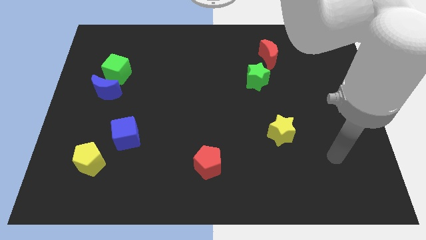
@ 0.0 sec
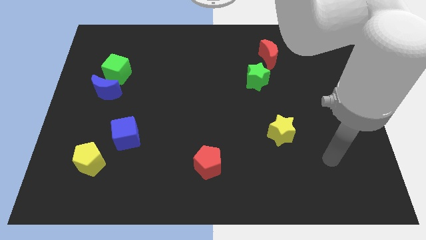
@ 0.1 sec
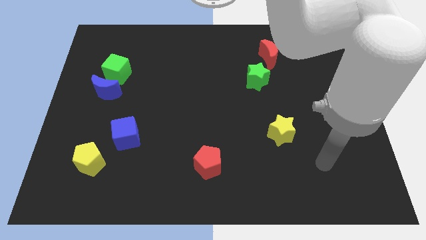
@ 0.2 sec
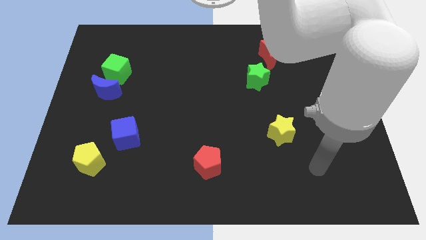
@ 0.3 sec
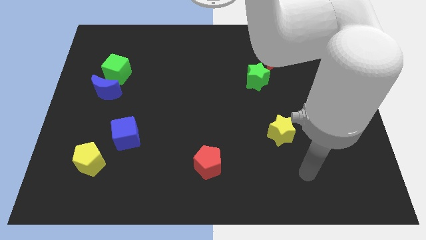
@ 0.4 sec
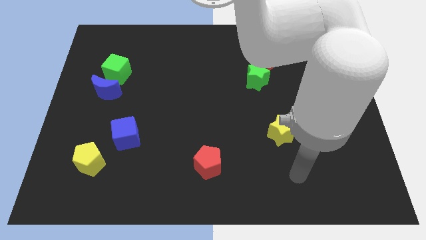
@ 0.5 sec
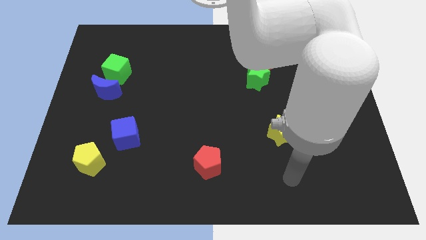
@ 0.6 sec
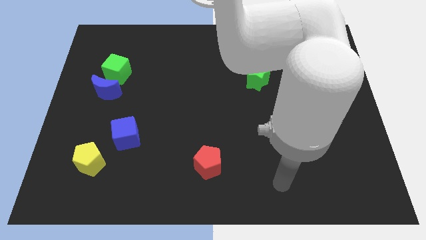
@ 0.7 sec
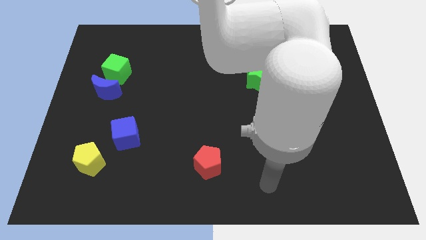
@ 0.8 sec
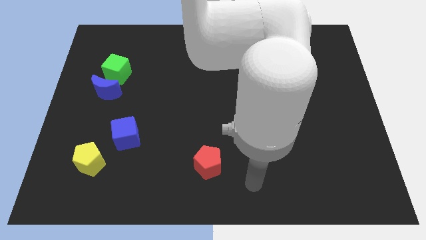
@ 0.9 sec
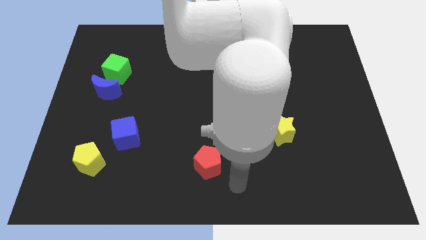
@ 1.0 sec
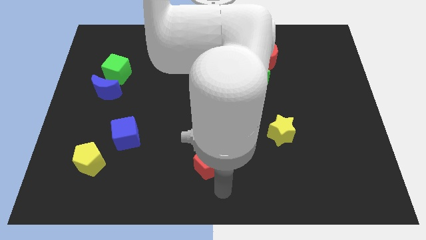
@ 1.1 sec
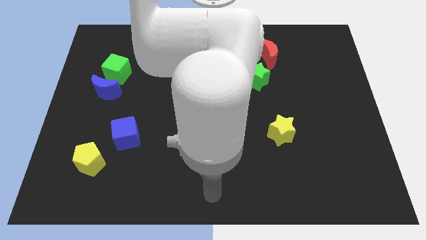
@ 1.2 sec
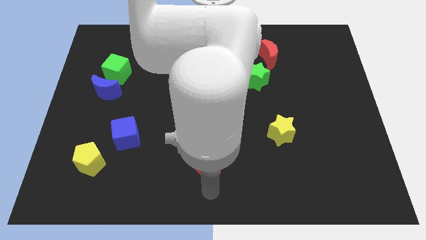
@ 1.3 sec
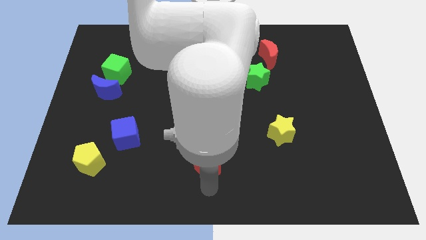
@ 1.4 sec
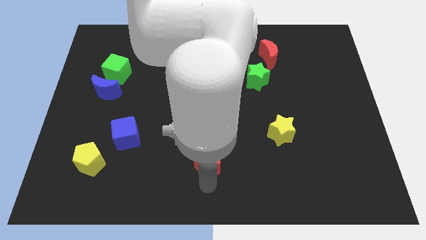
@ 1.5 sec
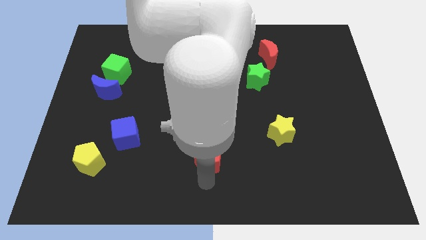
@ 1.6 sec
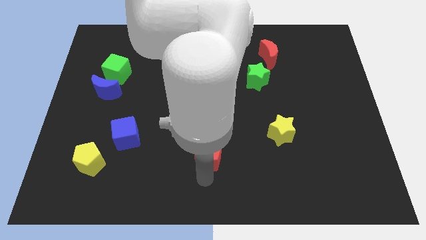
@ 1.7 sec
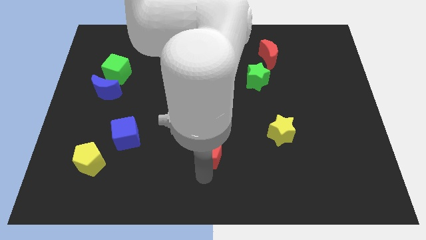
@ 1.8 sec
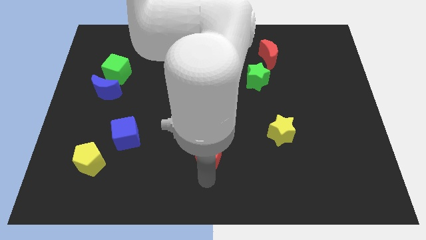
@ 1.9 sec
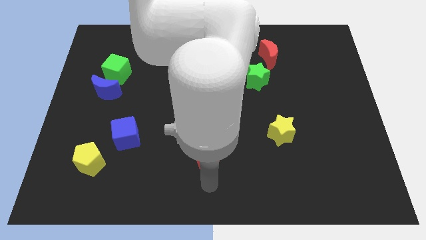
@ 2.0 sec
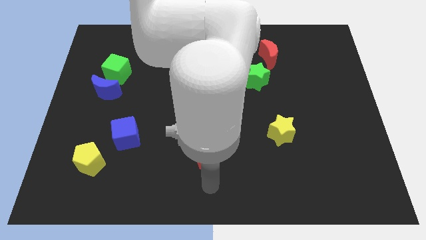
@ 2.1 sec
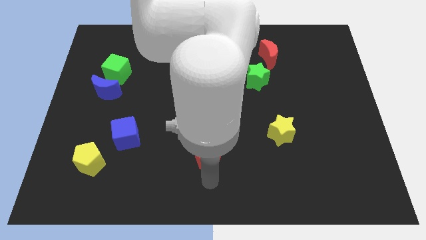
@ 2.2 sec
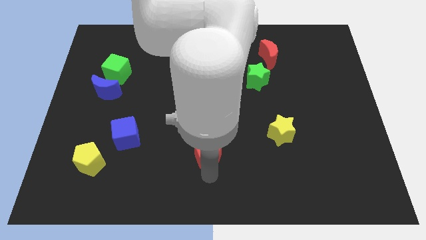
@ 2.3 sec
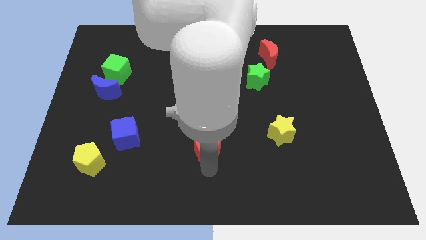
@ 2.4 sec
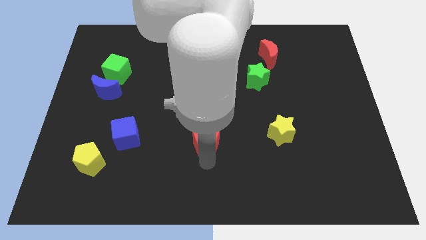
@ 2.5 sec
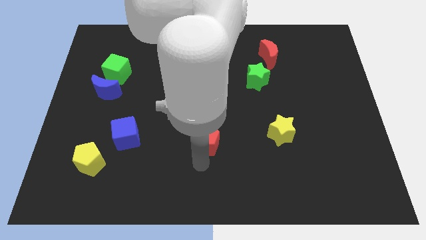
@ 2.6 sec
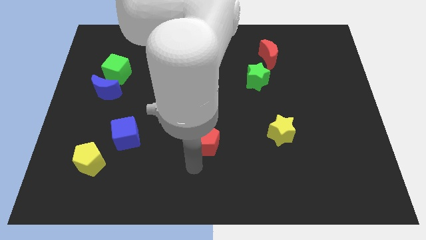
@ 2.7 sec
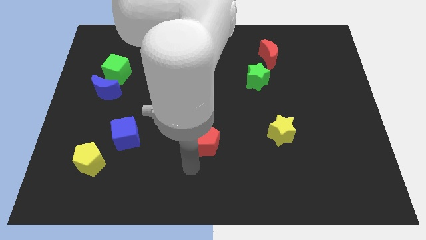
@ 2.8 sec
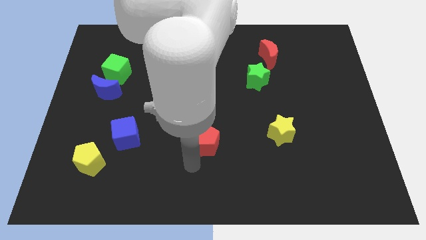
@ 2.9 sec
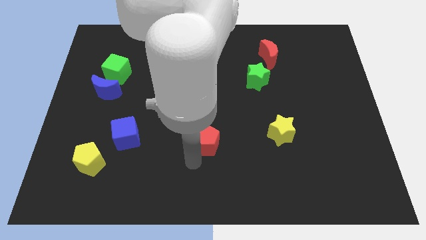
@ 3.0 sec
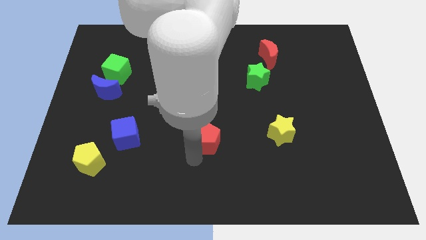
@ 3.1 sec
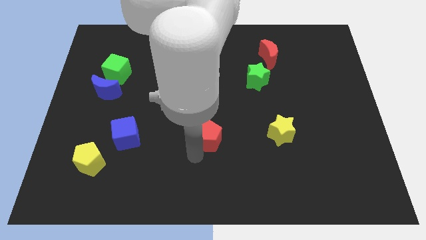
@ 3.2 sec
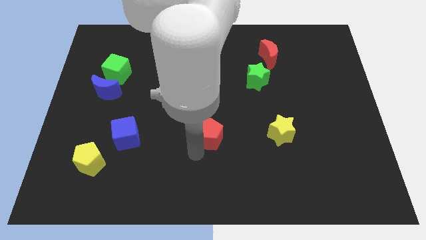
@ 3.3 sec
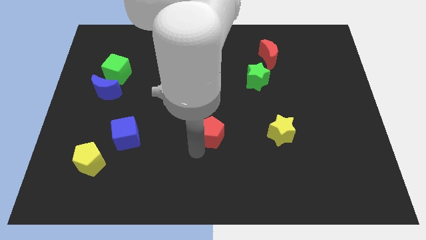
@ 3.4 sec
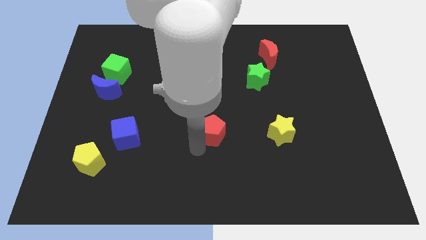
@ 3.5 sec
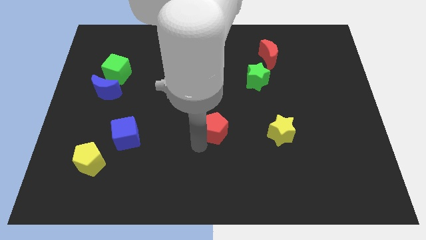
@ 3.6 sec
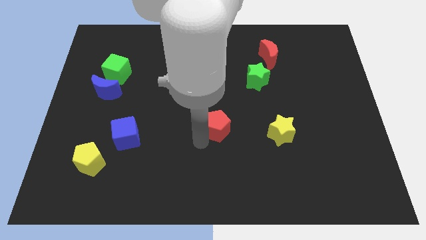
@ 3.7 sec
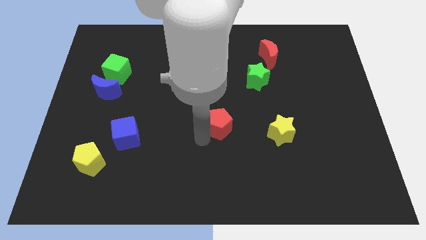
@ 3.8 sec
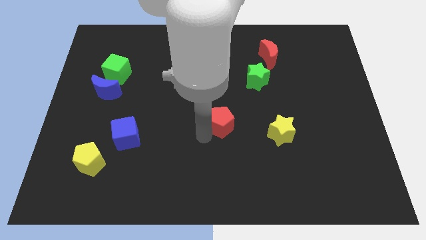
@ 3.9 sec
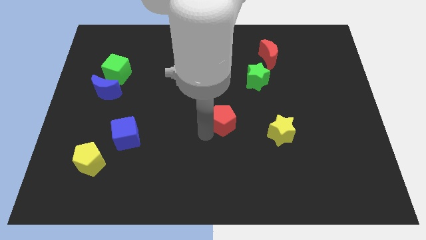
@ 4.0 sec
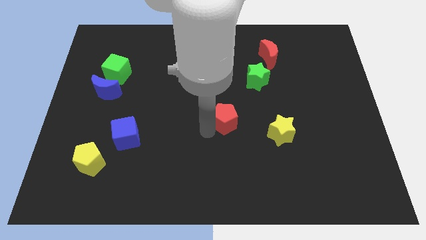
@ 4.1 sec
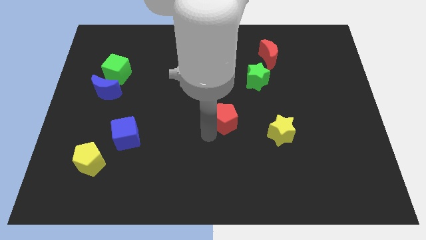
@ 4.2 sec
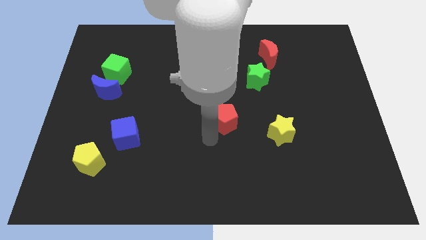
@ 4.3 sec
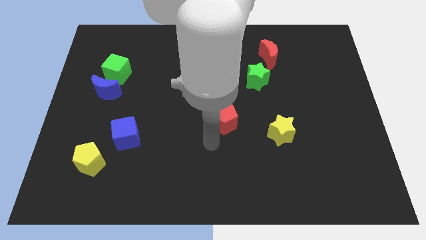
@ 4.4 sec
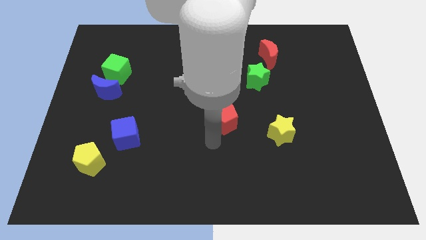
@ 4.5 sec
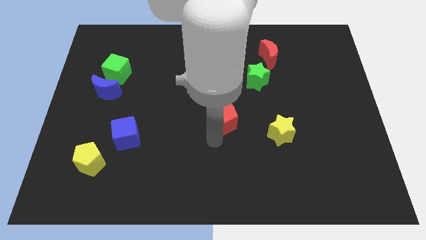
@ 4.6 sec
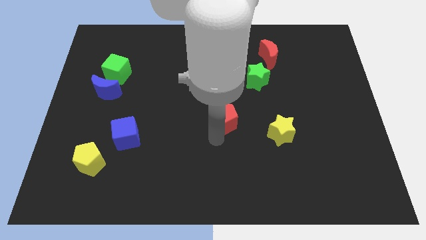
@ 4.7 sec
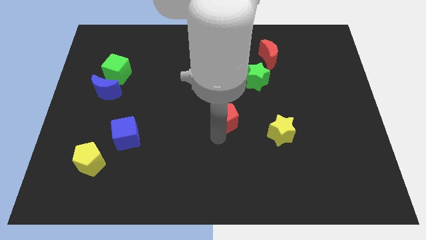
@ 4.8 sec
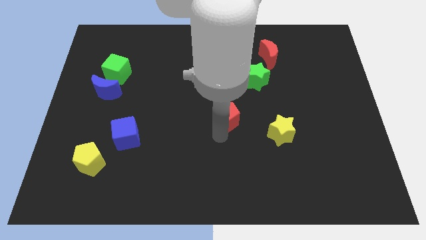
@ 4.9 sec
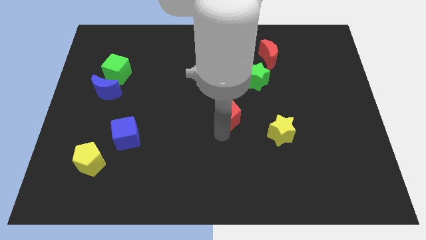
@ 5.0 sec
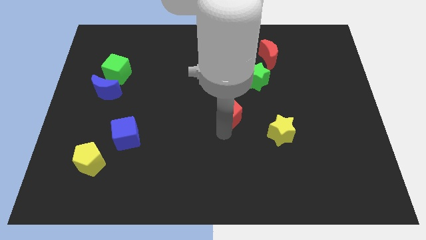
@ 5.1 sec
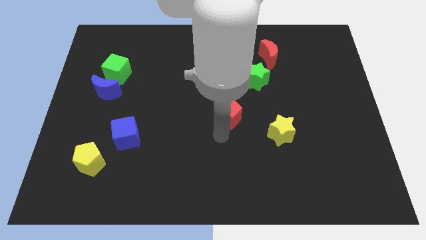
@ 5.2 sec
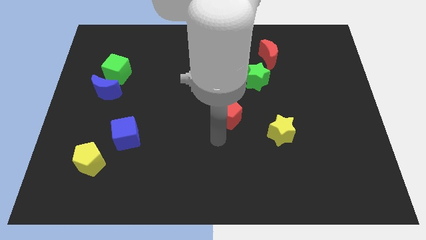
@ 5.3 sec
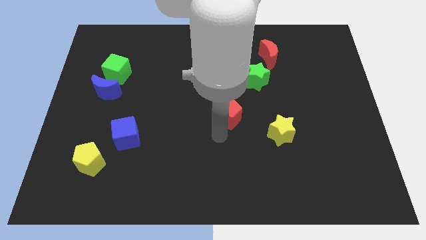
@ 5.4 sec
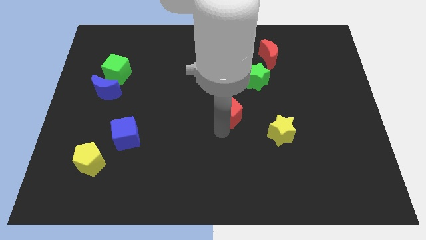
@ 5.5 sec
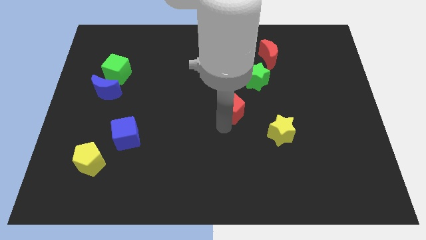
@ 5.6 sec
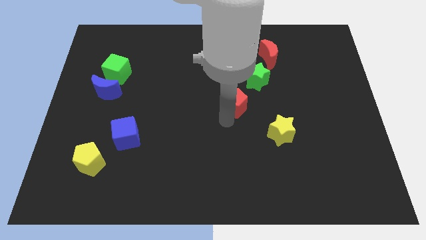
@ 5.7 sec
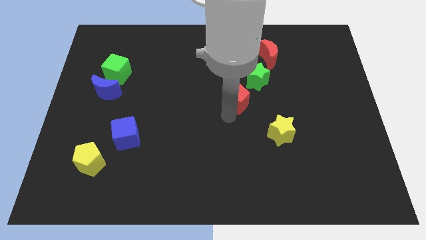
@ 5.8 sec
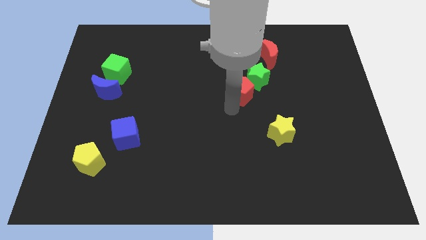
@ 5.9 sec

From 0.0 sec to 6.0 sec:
slide the red pentagon next to the green star

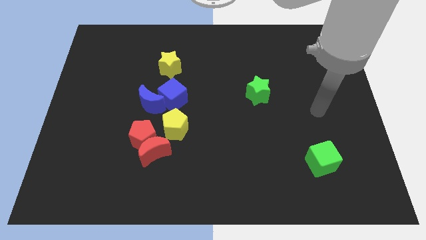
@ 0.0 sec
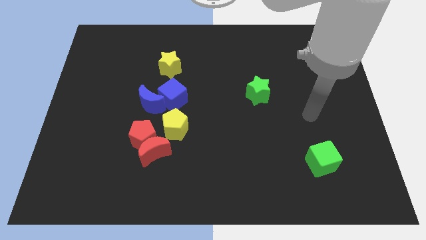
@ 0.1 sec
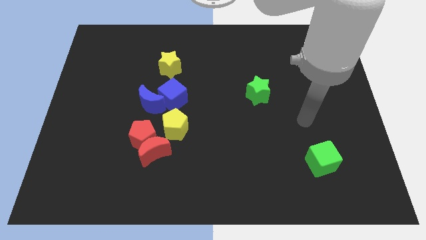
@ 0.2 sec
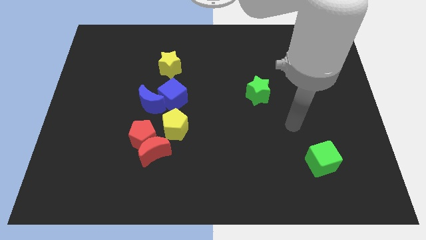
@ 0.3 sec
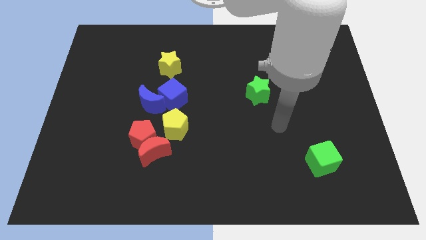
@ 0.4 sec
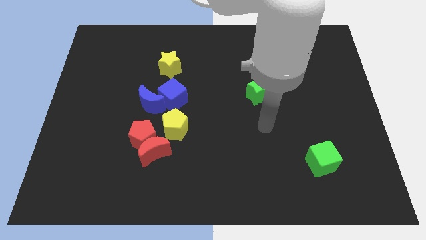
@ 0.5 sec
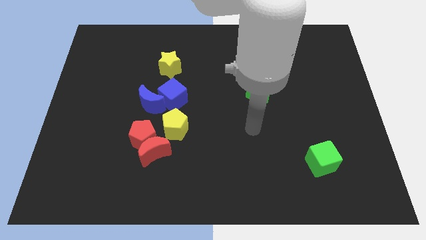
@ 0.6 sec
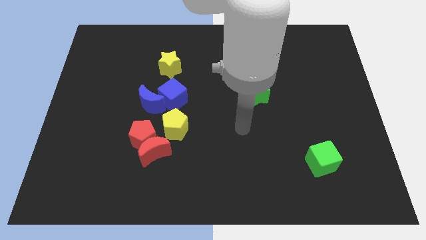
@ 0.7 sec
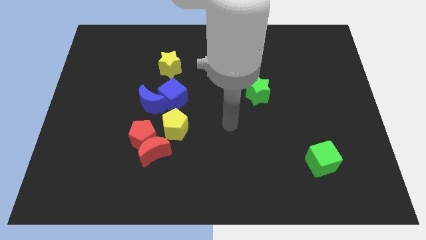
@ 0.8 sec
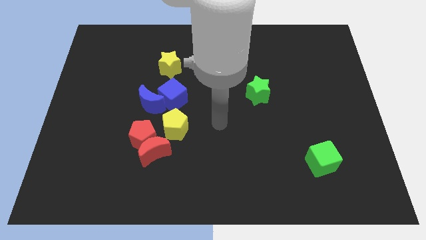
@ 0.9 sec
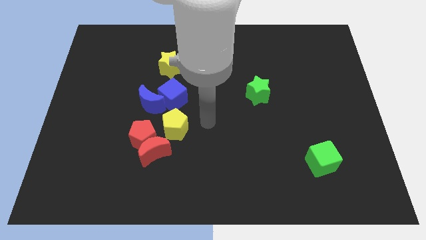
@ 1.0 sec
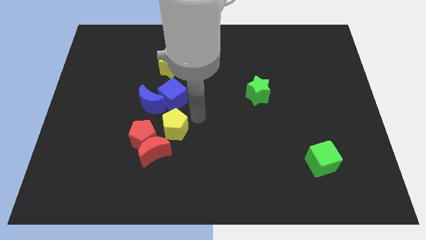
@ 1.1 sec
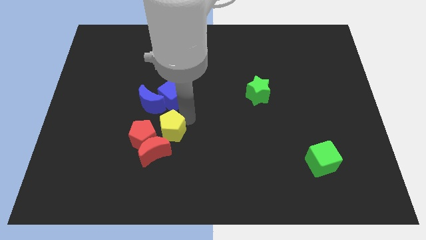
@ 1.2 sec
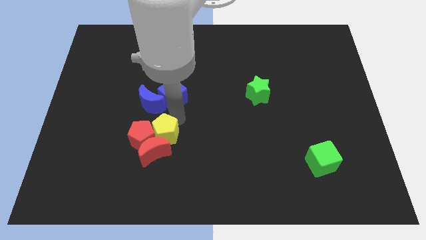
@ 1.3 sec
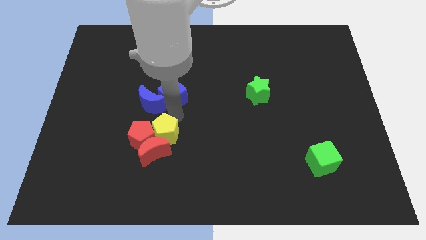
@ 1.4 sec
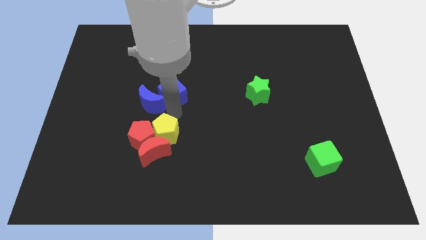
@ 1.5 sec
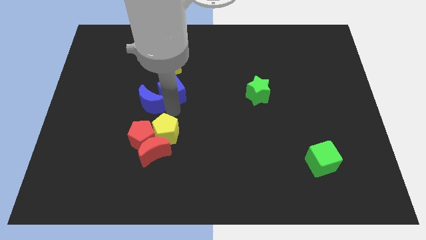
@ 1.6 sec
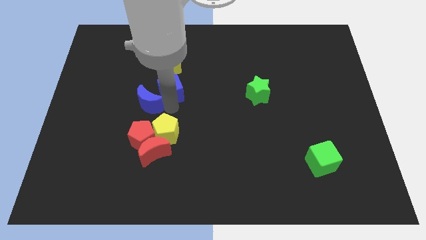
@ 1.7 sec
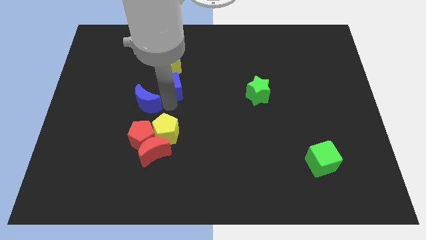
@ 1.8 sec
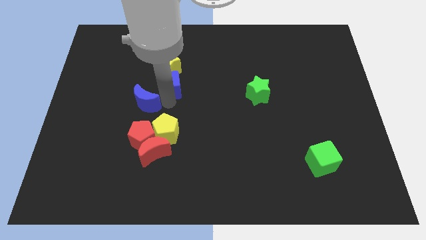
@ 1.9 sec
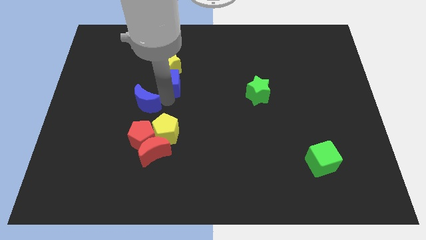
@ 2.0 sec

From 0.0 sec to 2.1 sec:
move the blue cube next to the yellow star
